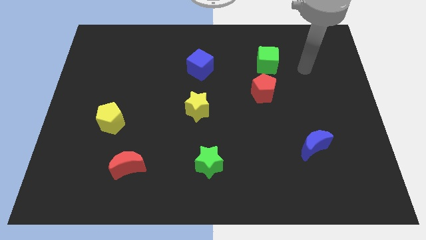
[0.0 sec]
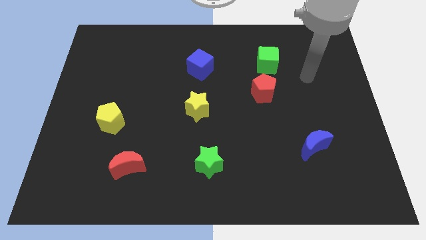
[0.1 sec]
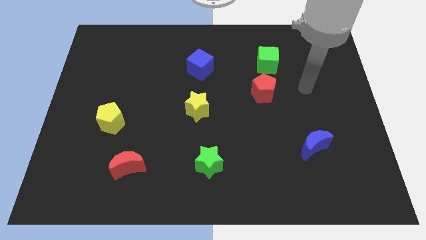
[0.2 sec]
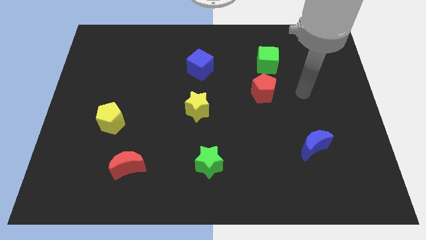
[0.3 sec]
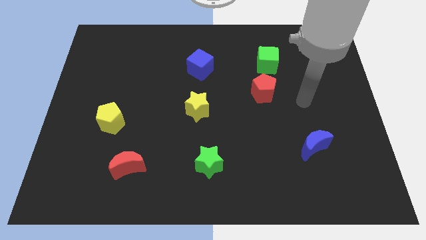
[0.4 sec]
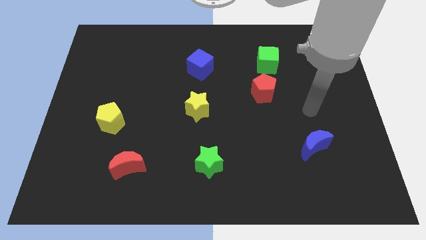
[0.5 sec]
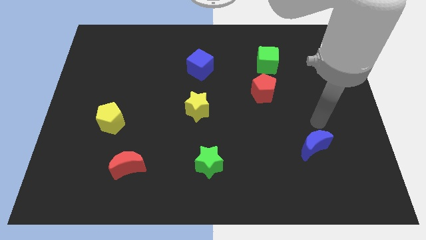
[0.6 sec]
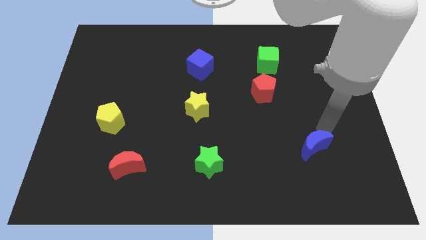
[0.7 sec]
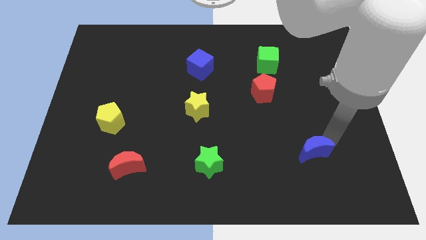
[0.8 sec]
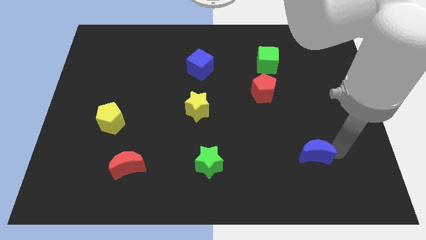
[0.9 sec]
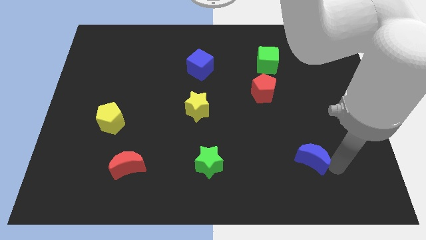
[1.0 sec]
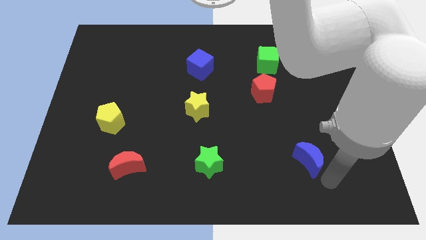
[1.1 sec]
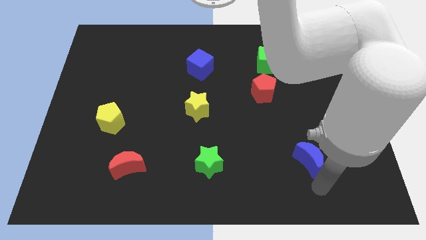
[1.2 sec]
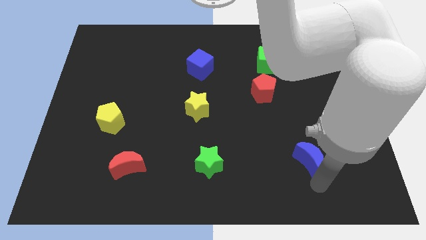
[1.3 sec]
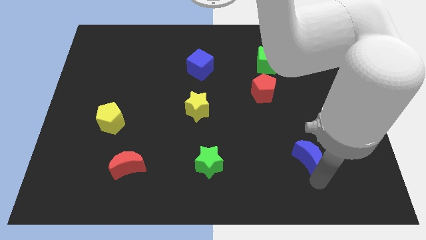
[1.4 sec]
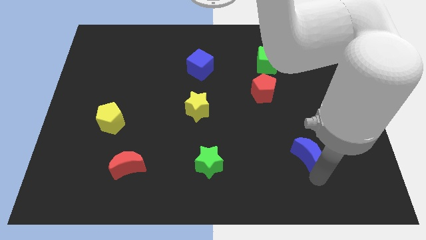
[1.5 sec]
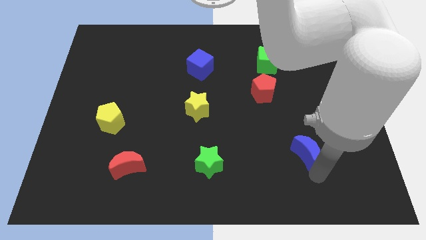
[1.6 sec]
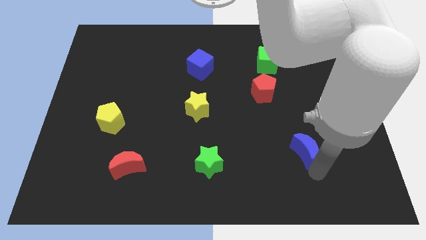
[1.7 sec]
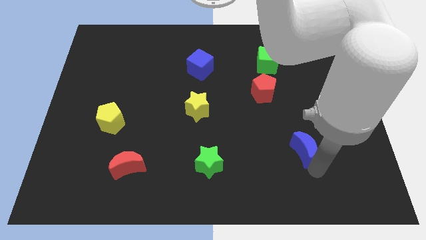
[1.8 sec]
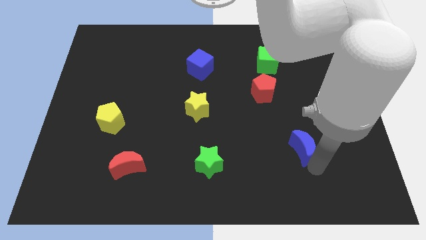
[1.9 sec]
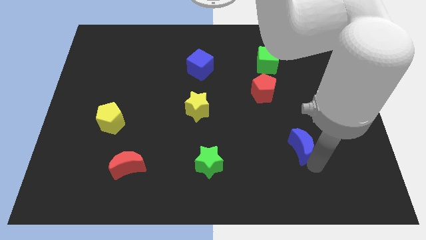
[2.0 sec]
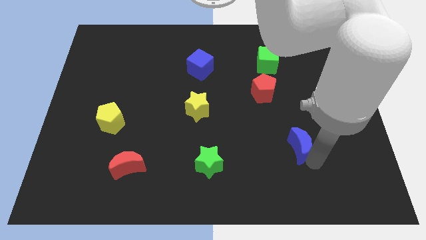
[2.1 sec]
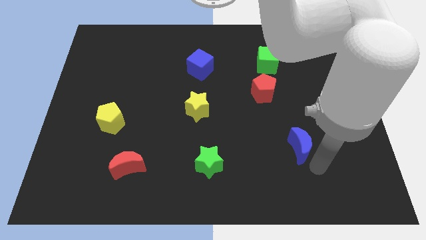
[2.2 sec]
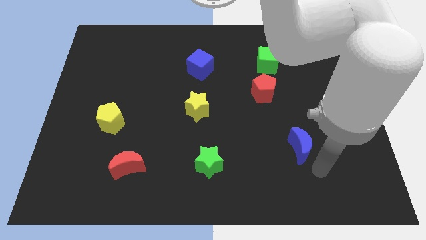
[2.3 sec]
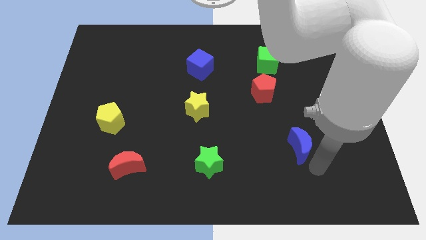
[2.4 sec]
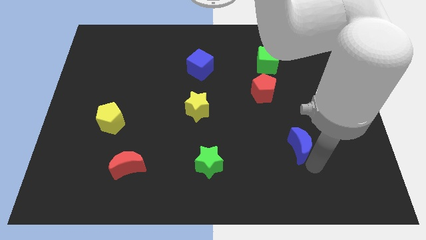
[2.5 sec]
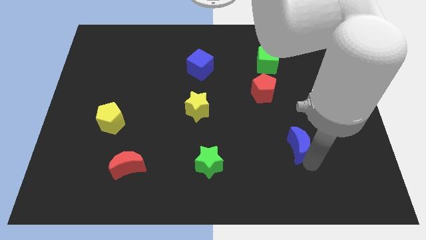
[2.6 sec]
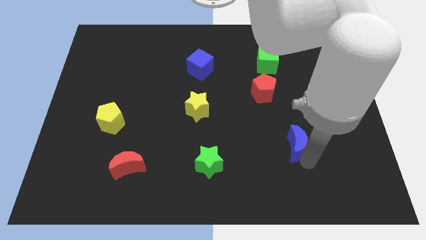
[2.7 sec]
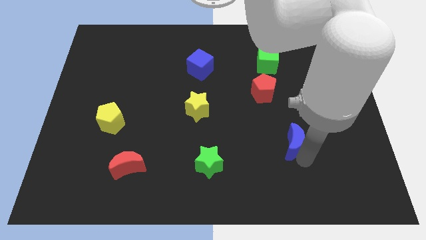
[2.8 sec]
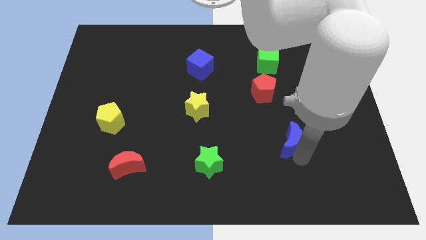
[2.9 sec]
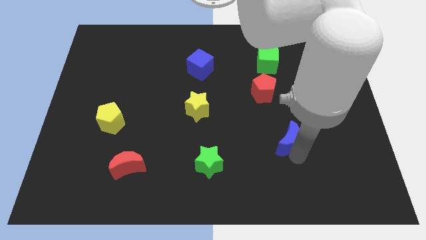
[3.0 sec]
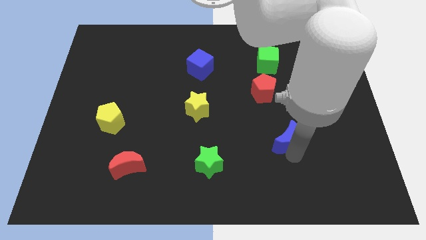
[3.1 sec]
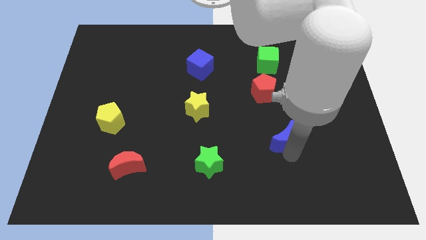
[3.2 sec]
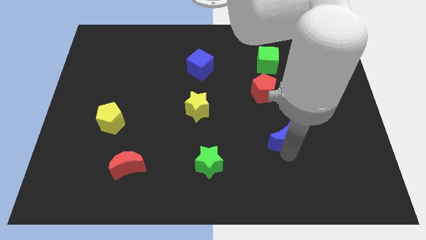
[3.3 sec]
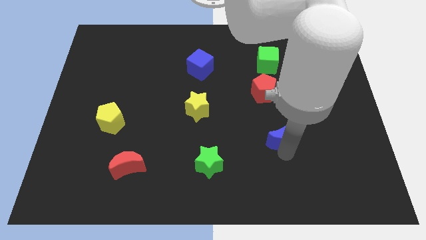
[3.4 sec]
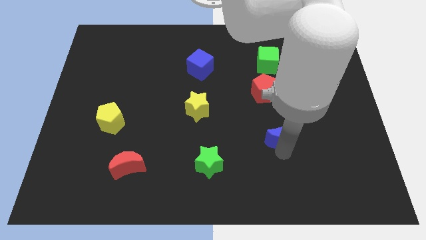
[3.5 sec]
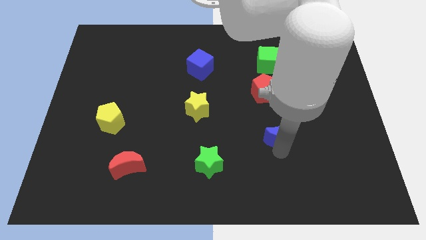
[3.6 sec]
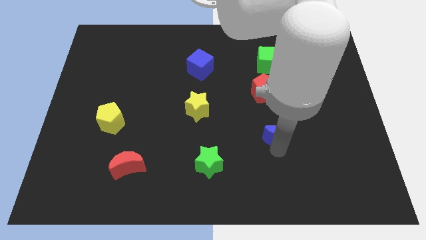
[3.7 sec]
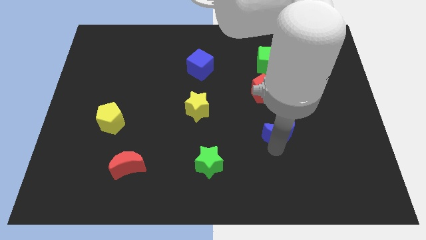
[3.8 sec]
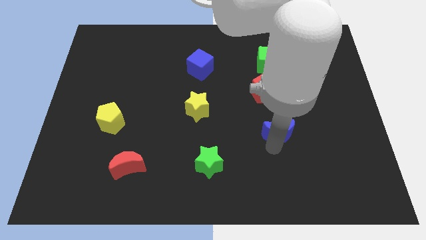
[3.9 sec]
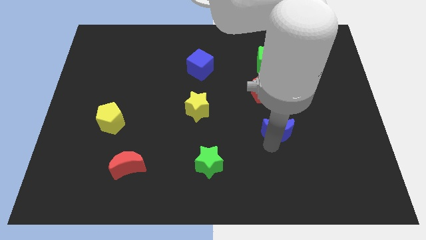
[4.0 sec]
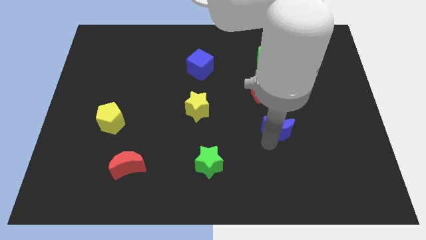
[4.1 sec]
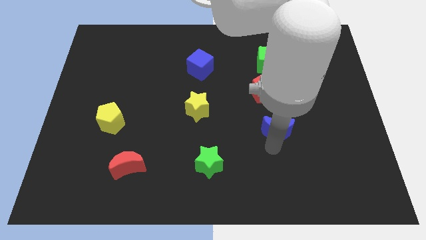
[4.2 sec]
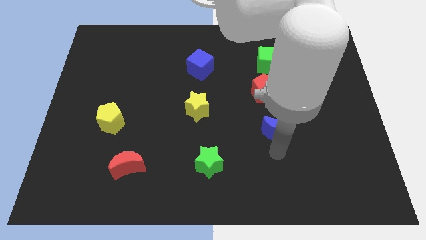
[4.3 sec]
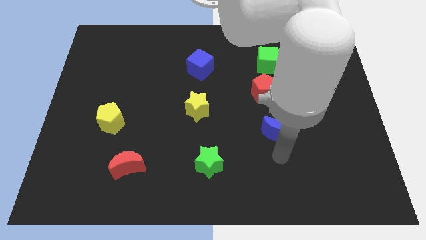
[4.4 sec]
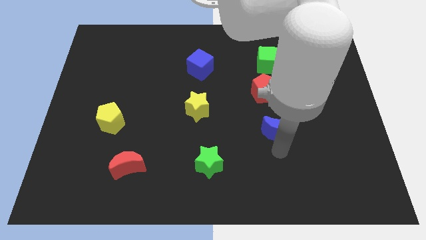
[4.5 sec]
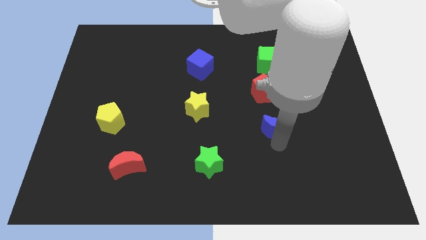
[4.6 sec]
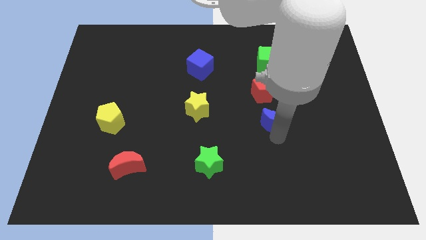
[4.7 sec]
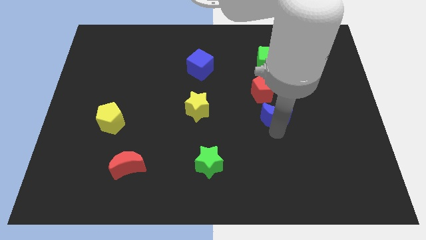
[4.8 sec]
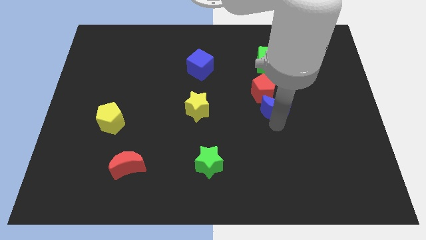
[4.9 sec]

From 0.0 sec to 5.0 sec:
move the blue moon to the red pentagon

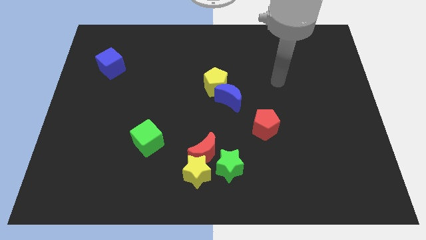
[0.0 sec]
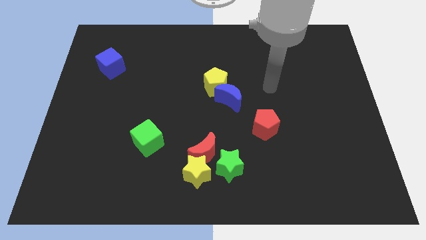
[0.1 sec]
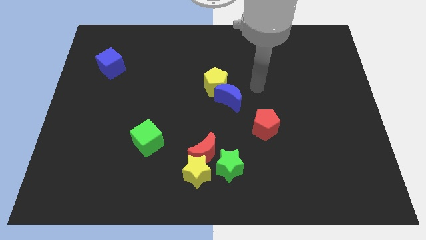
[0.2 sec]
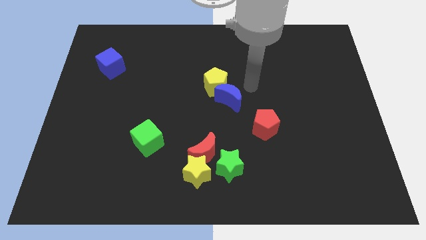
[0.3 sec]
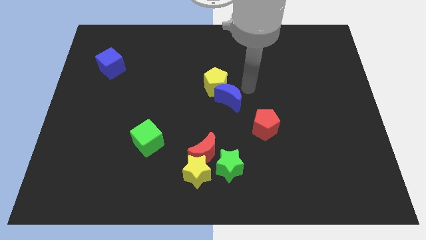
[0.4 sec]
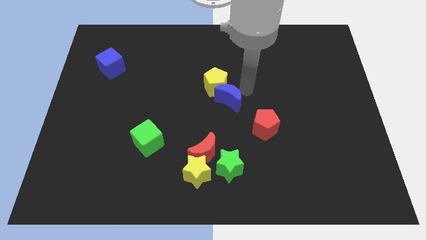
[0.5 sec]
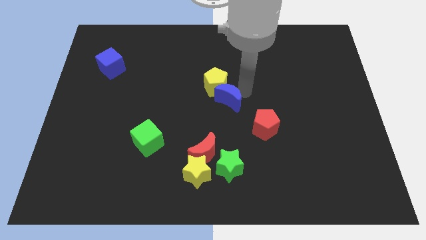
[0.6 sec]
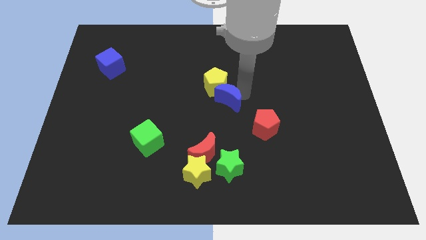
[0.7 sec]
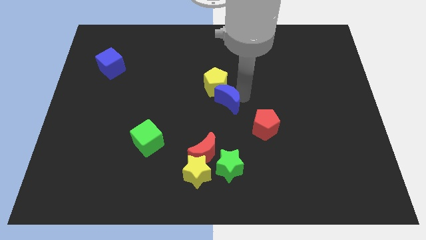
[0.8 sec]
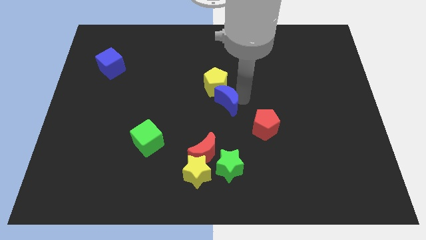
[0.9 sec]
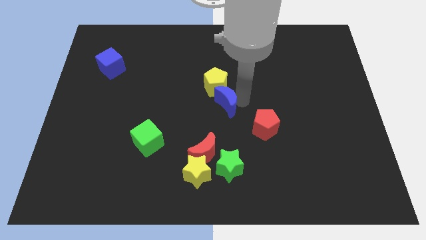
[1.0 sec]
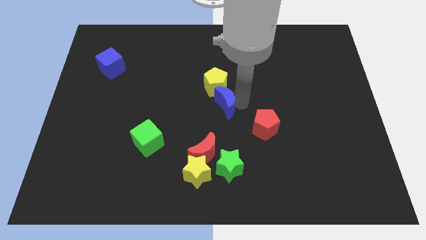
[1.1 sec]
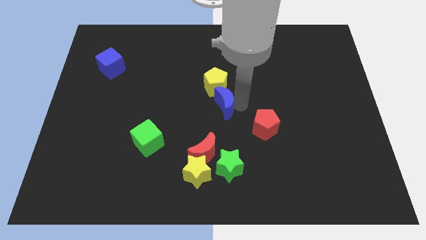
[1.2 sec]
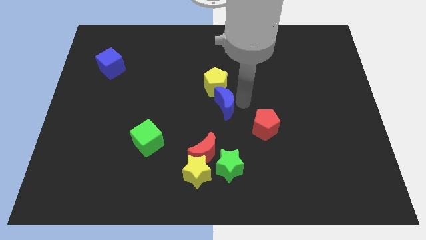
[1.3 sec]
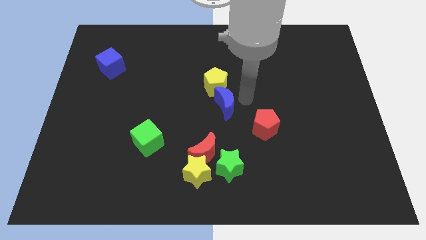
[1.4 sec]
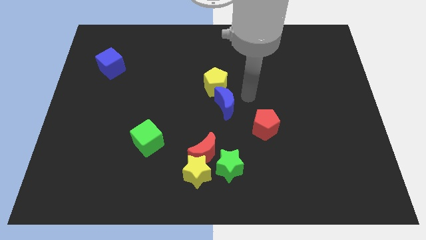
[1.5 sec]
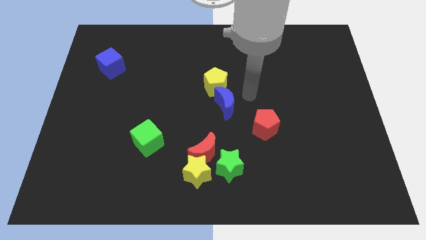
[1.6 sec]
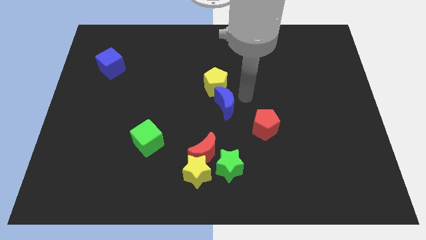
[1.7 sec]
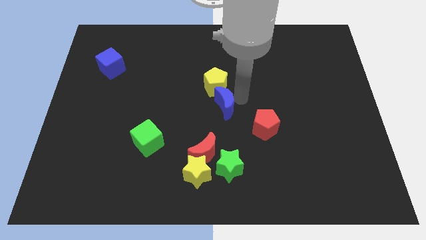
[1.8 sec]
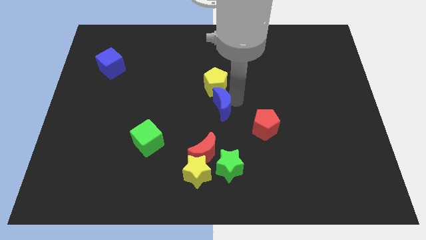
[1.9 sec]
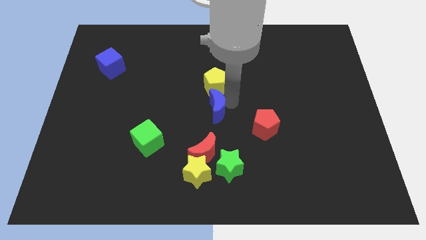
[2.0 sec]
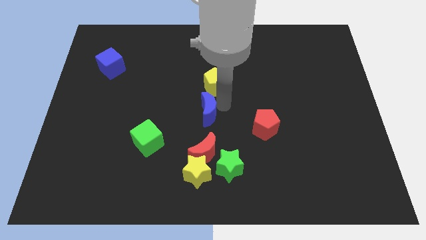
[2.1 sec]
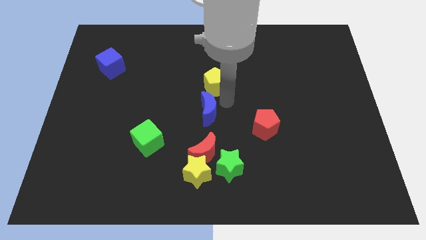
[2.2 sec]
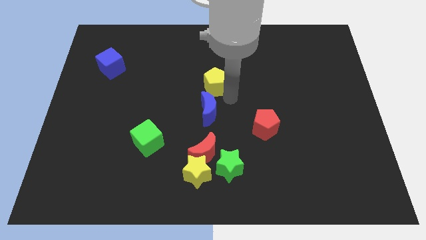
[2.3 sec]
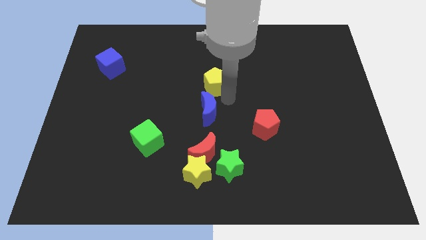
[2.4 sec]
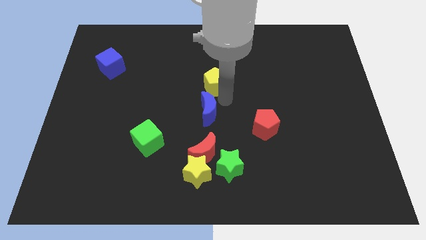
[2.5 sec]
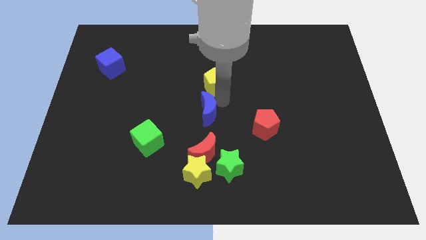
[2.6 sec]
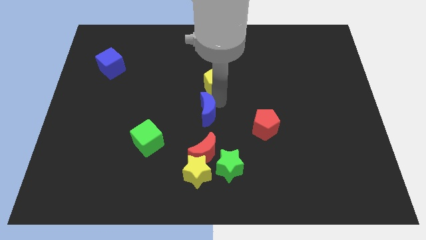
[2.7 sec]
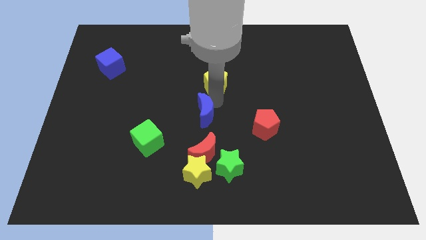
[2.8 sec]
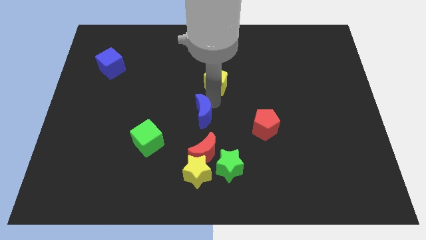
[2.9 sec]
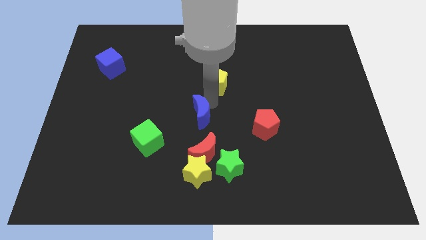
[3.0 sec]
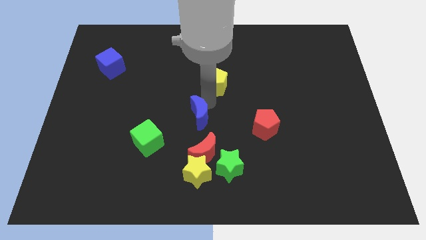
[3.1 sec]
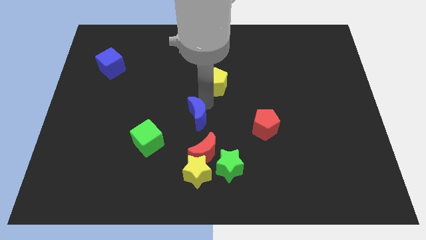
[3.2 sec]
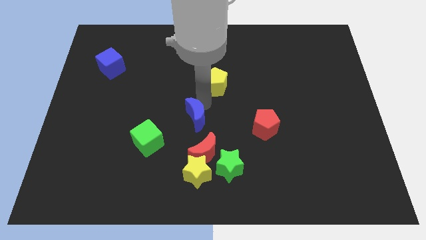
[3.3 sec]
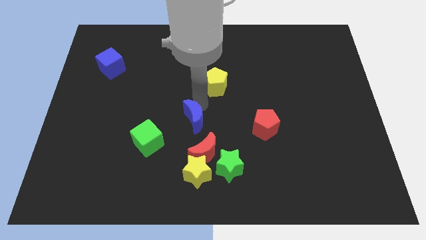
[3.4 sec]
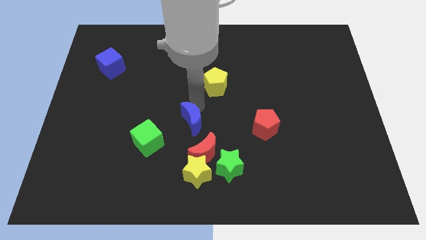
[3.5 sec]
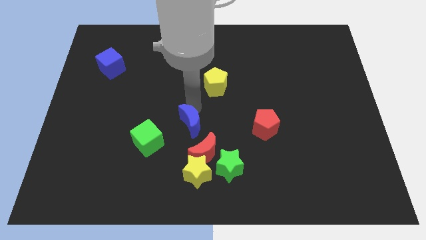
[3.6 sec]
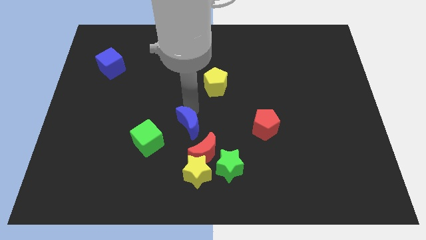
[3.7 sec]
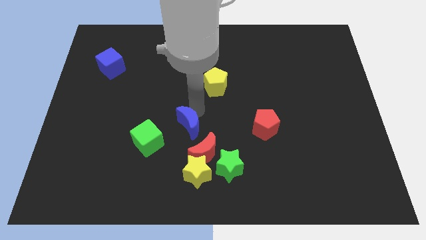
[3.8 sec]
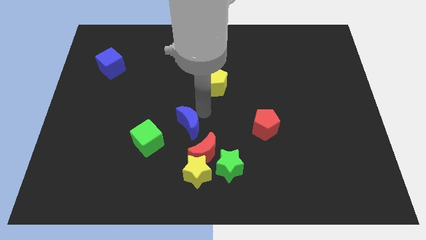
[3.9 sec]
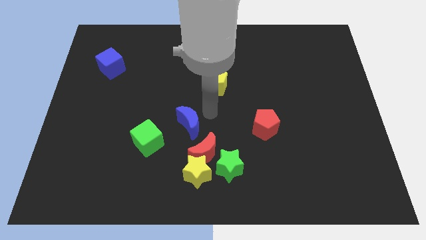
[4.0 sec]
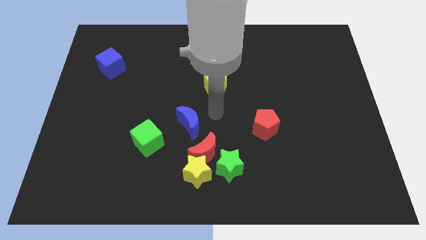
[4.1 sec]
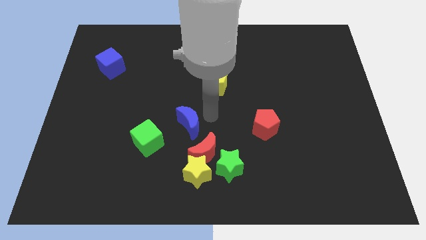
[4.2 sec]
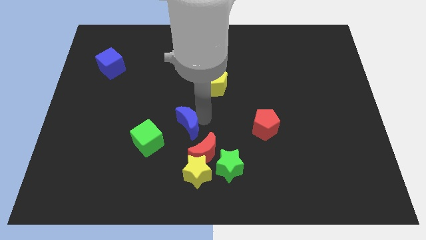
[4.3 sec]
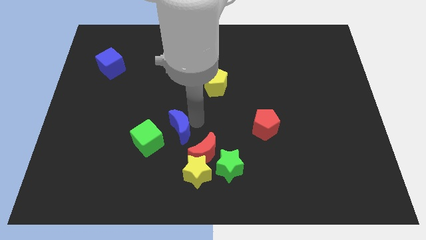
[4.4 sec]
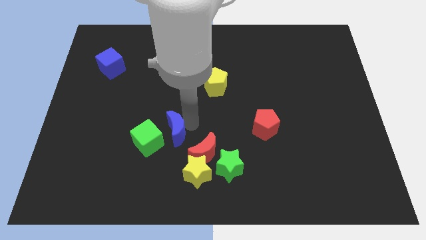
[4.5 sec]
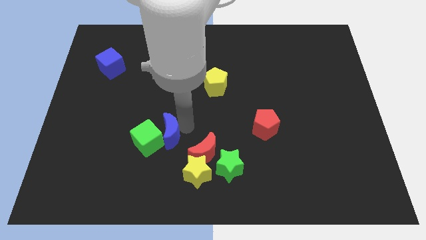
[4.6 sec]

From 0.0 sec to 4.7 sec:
push the blue moon to the green cube
